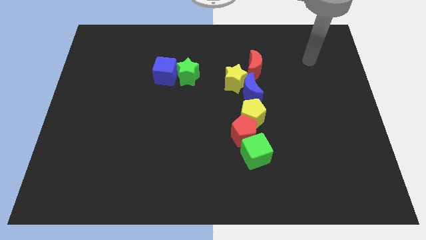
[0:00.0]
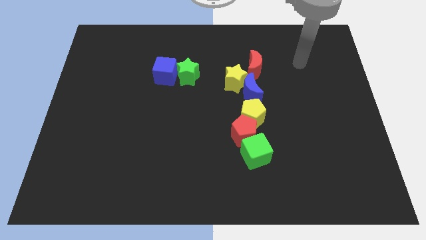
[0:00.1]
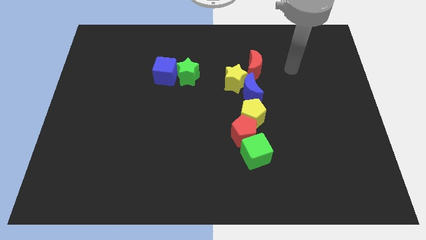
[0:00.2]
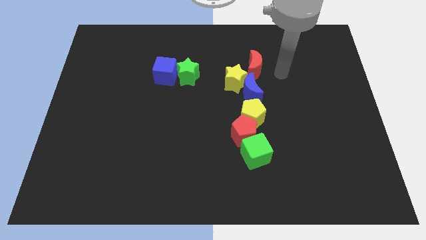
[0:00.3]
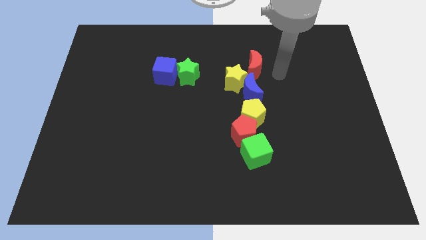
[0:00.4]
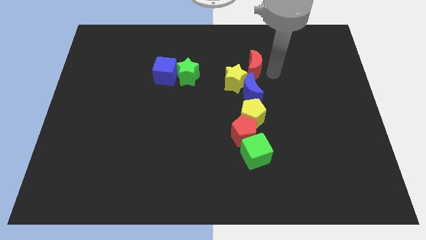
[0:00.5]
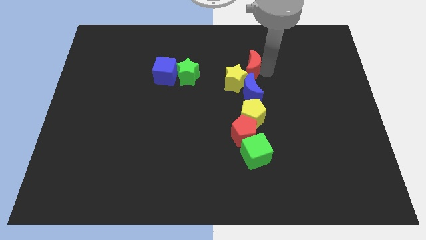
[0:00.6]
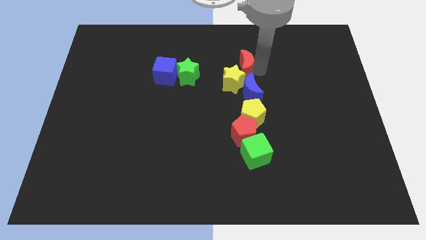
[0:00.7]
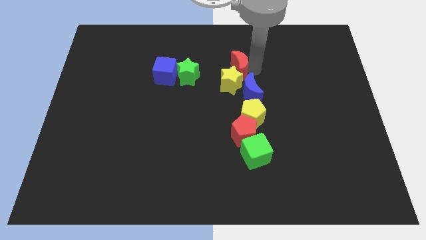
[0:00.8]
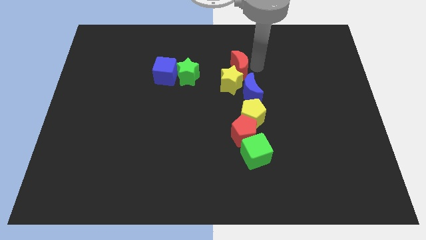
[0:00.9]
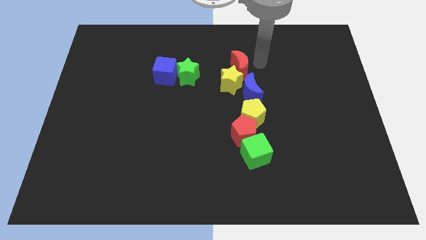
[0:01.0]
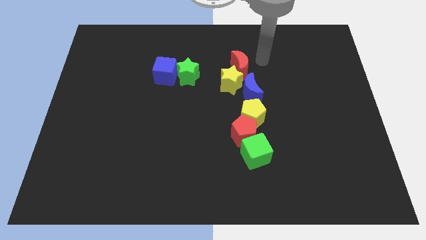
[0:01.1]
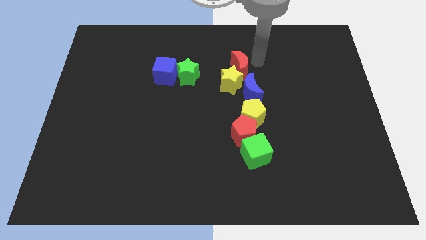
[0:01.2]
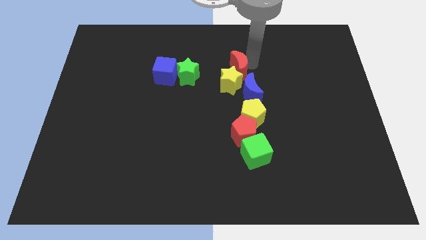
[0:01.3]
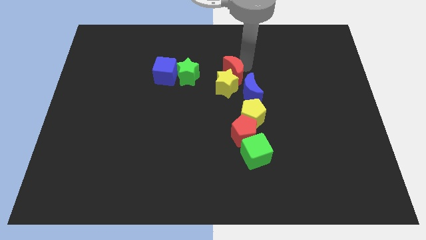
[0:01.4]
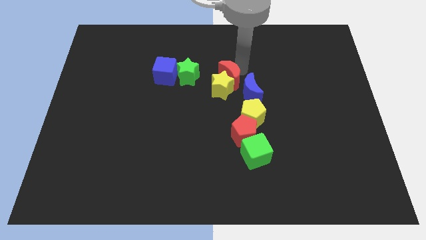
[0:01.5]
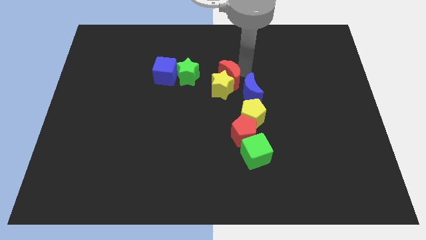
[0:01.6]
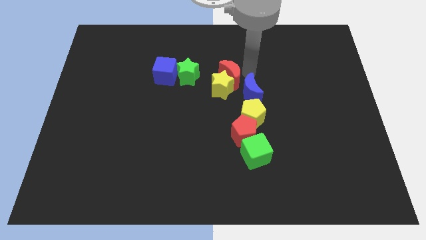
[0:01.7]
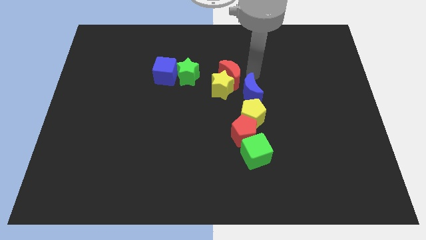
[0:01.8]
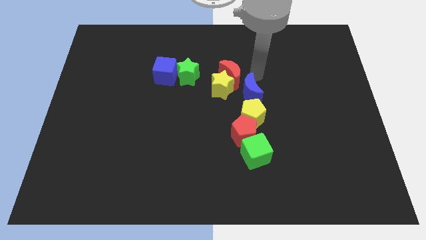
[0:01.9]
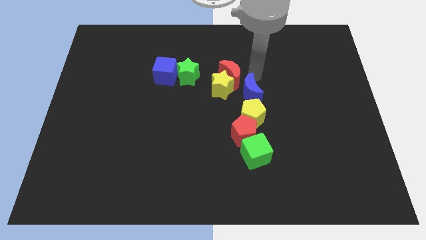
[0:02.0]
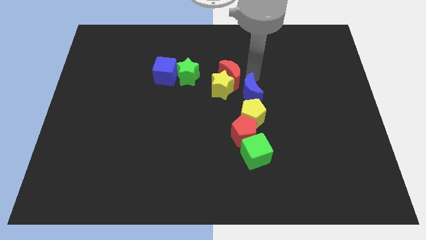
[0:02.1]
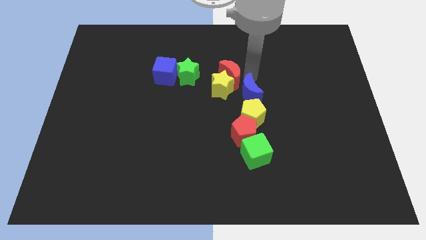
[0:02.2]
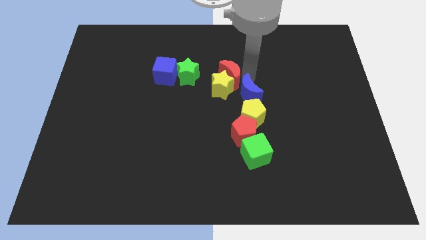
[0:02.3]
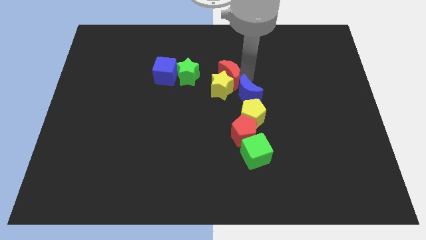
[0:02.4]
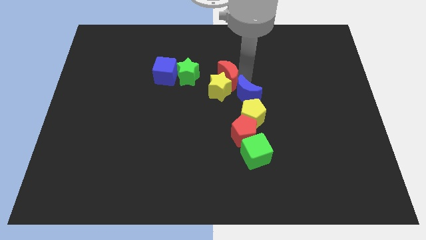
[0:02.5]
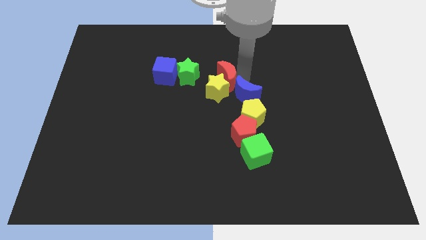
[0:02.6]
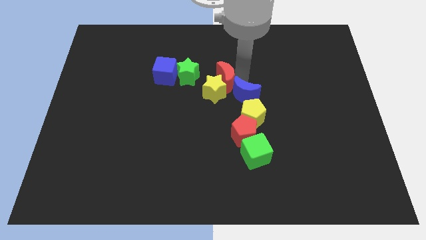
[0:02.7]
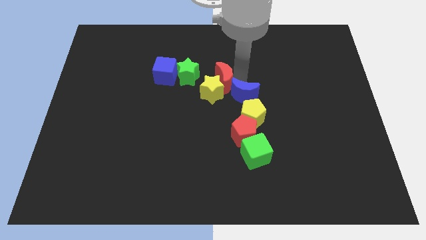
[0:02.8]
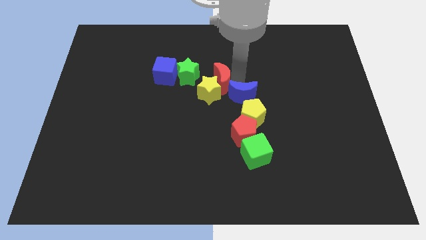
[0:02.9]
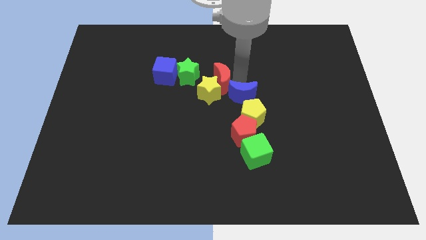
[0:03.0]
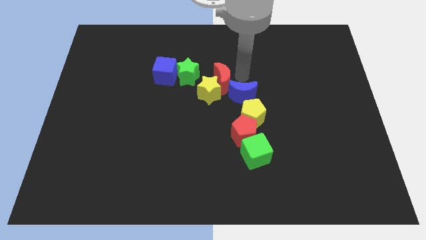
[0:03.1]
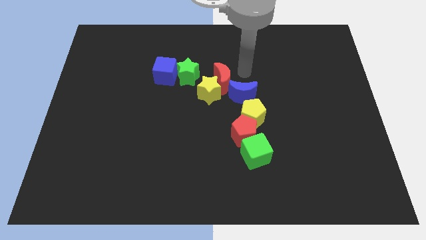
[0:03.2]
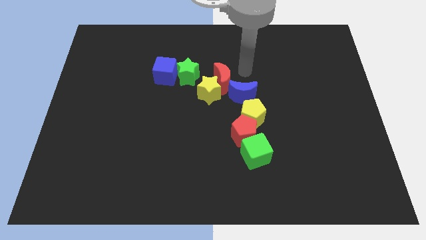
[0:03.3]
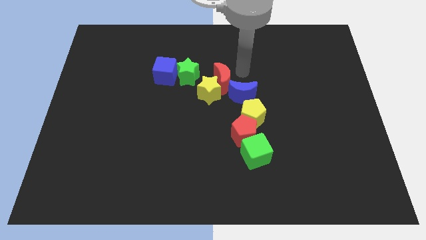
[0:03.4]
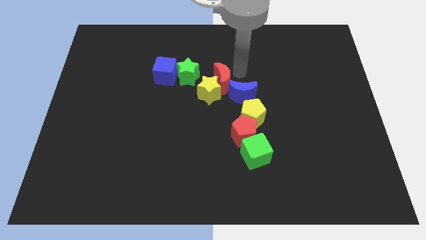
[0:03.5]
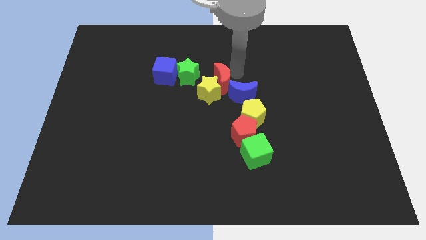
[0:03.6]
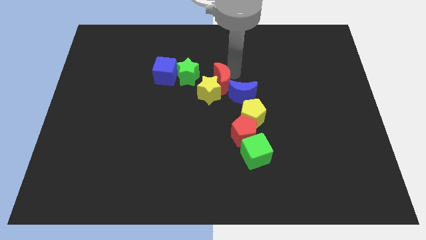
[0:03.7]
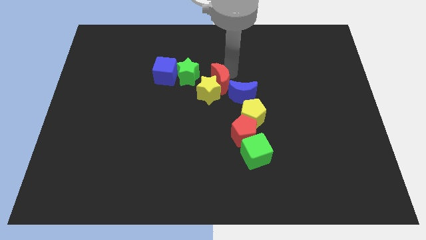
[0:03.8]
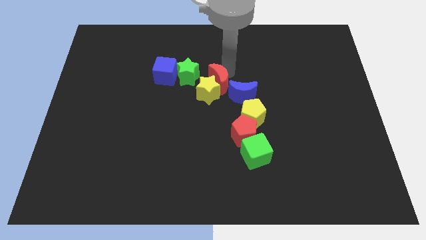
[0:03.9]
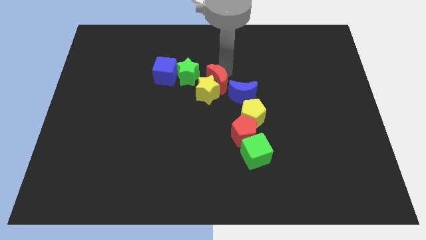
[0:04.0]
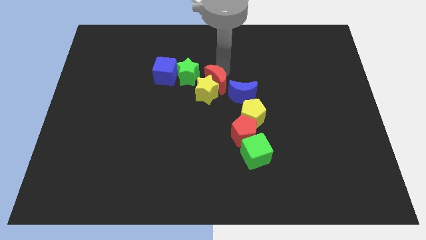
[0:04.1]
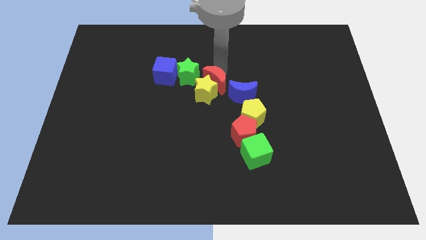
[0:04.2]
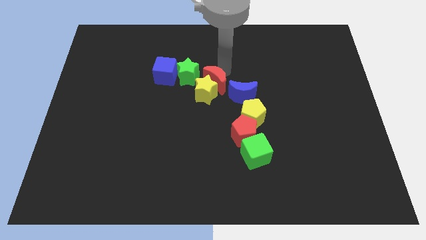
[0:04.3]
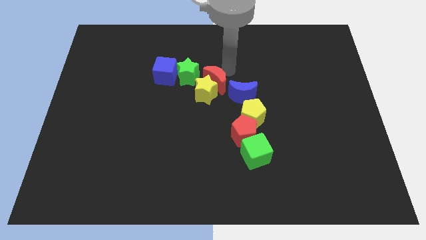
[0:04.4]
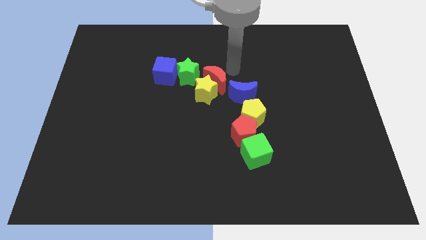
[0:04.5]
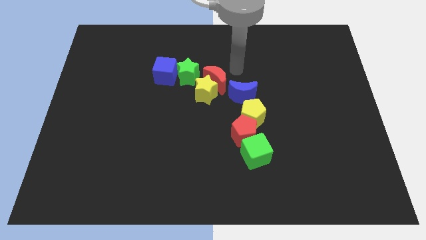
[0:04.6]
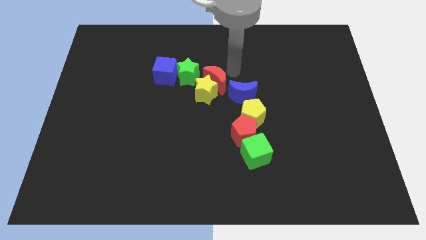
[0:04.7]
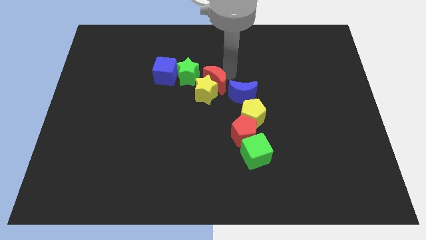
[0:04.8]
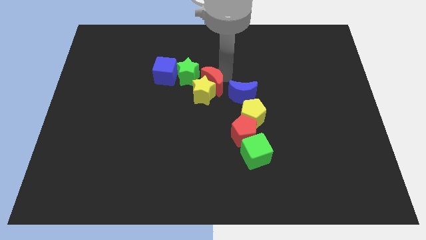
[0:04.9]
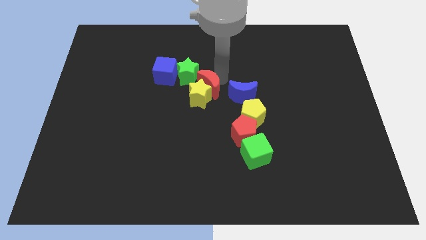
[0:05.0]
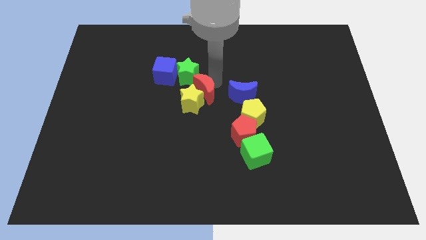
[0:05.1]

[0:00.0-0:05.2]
move the red moon to the bottom of the green star

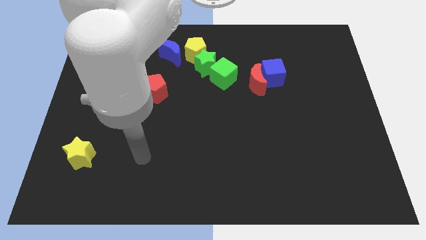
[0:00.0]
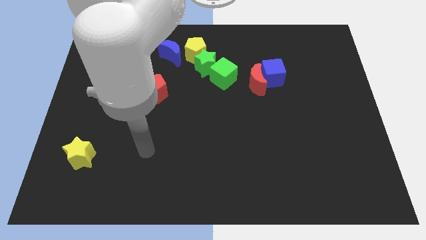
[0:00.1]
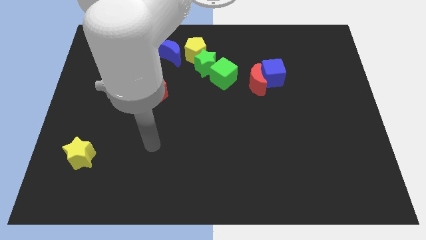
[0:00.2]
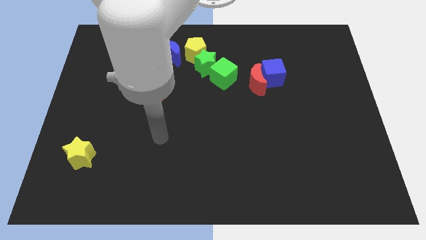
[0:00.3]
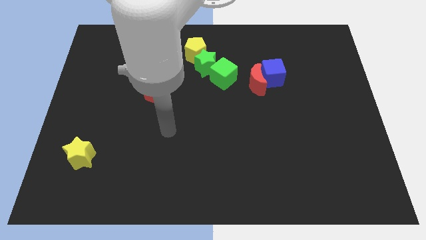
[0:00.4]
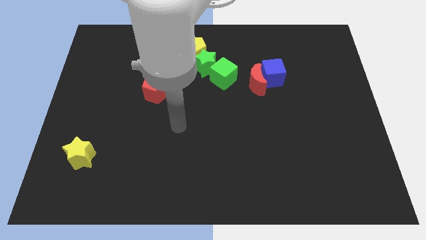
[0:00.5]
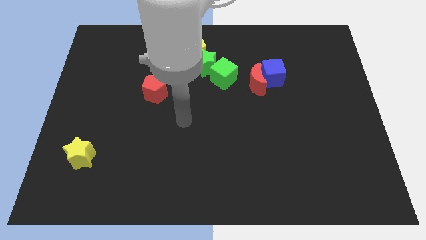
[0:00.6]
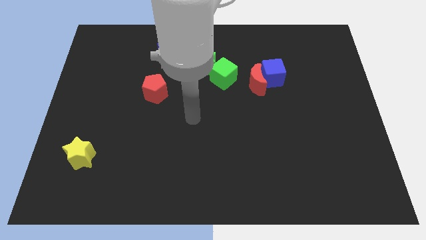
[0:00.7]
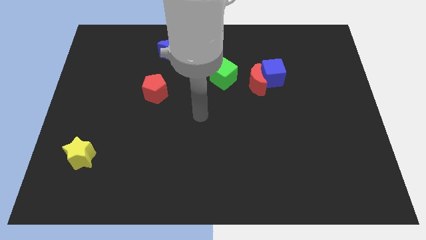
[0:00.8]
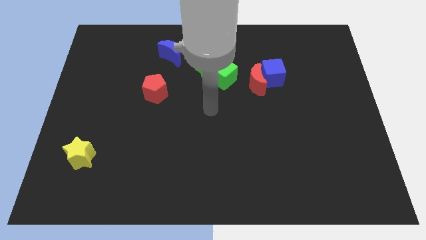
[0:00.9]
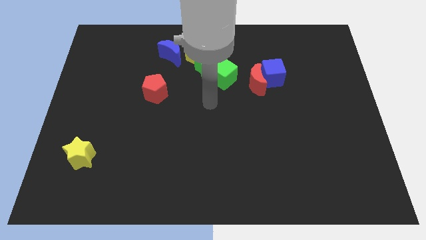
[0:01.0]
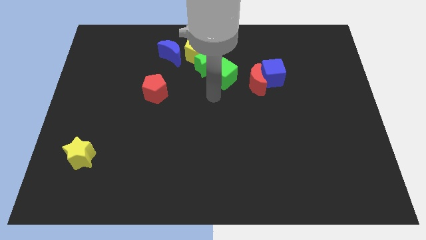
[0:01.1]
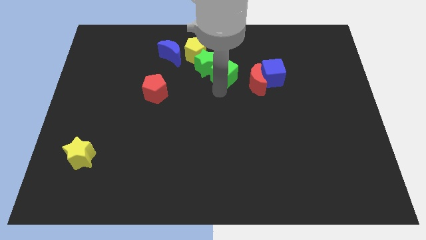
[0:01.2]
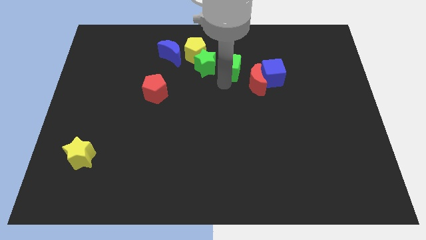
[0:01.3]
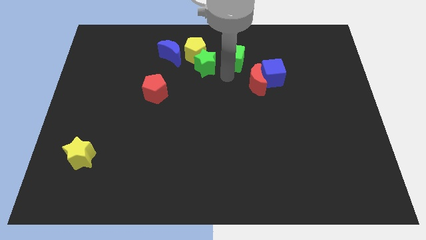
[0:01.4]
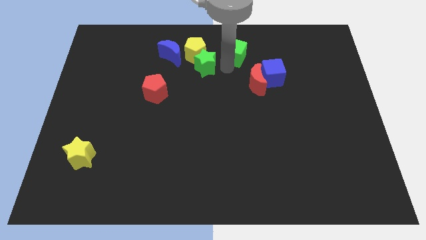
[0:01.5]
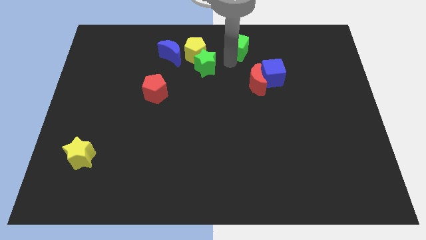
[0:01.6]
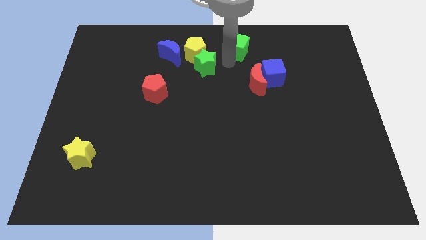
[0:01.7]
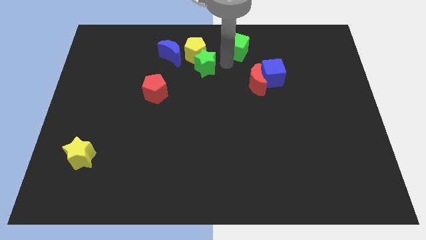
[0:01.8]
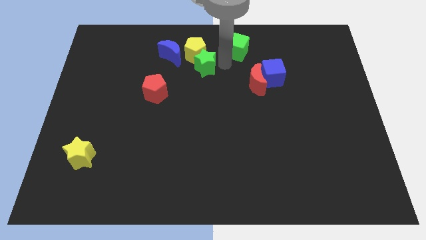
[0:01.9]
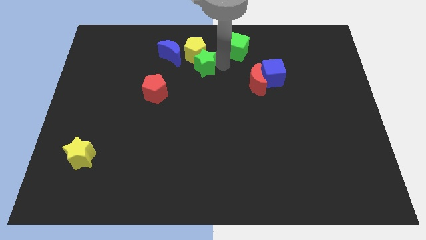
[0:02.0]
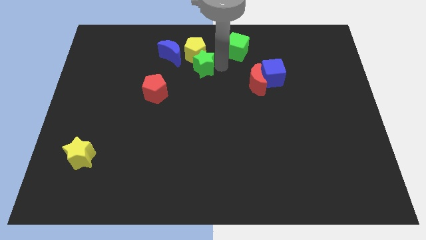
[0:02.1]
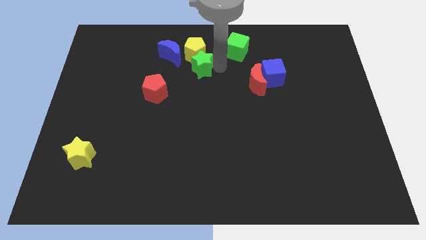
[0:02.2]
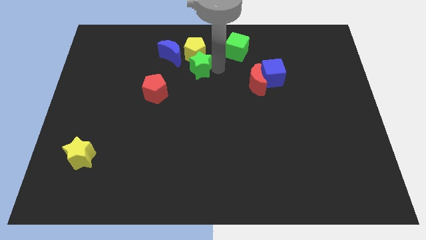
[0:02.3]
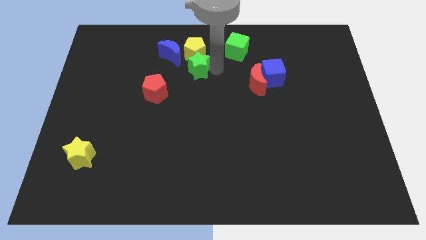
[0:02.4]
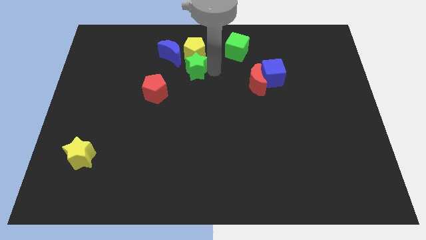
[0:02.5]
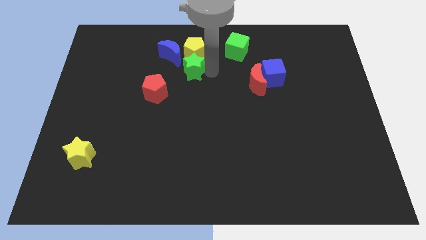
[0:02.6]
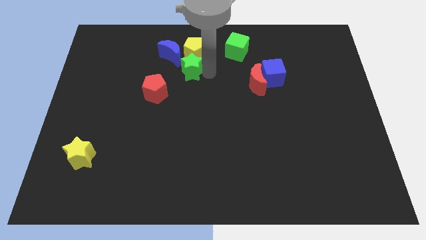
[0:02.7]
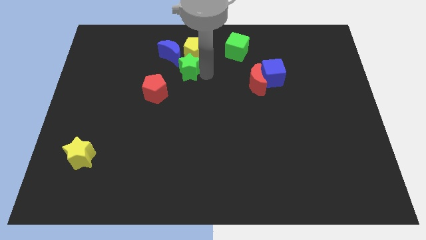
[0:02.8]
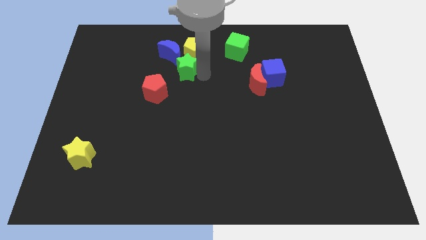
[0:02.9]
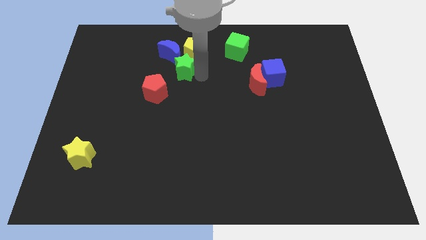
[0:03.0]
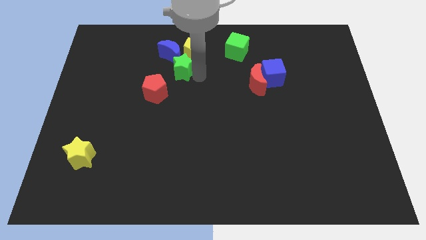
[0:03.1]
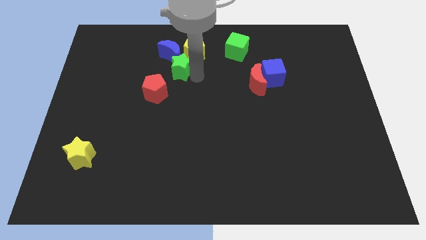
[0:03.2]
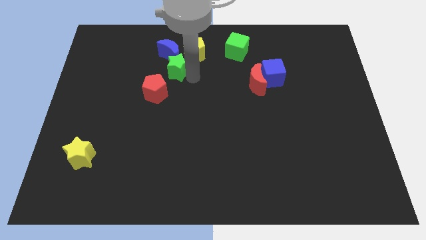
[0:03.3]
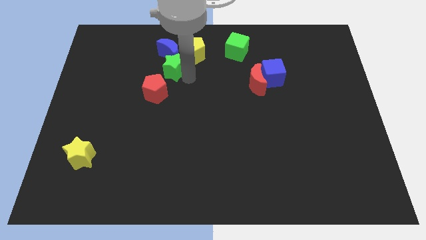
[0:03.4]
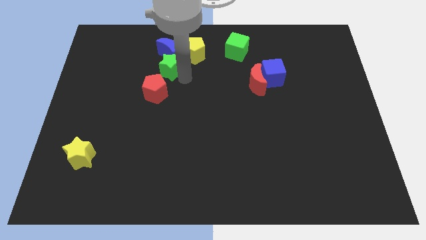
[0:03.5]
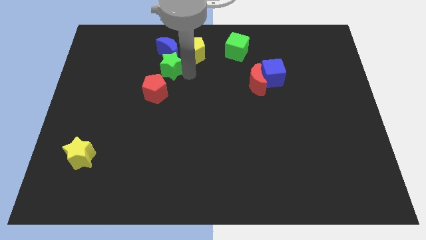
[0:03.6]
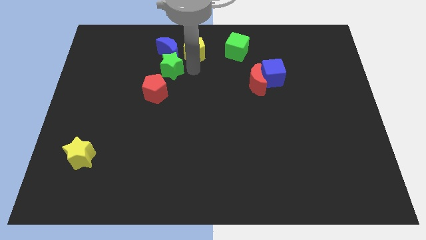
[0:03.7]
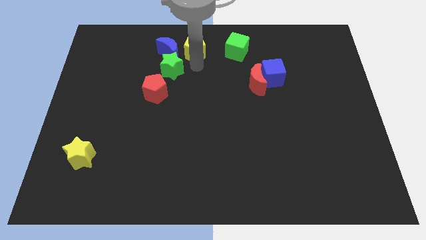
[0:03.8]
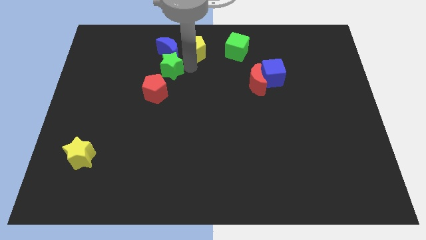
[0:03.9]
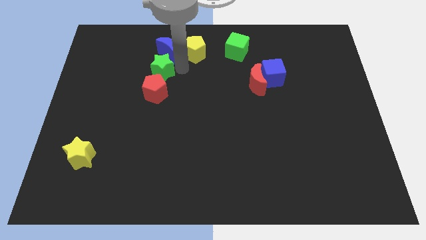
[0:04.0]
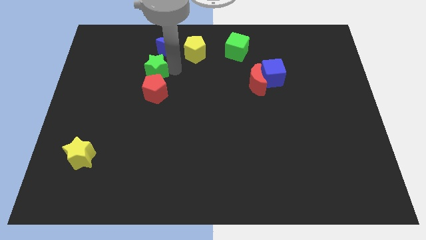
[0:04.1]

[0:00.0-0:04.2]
put the green star to the top left side of the red pentagon
